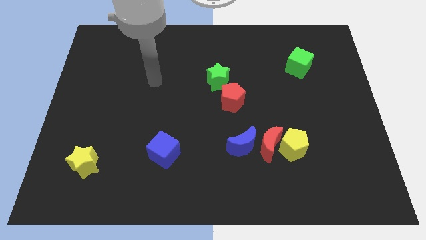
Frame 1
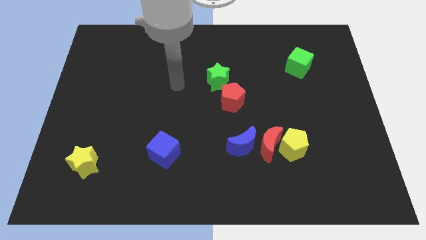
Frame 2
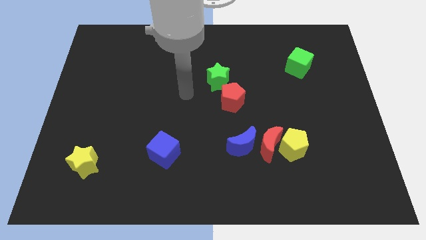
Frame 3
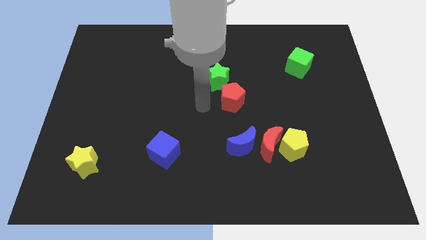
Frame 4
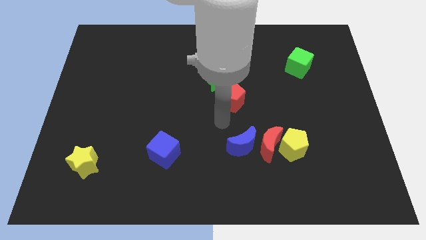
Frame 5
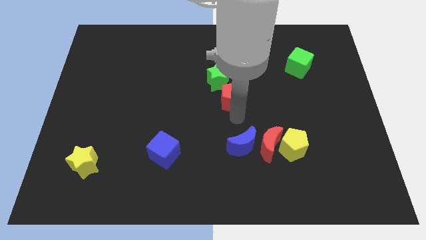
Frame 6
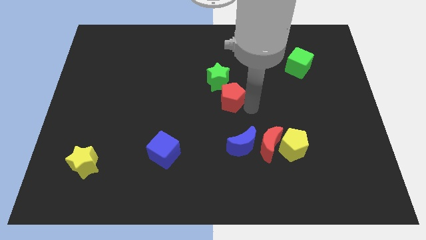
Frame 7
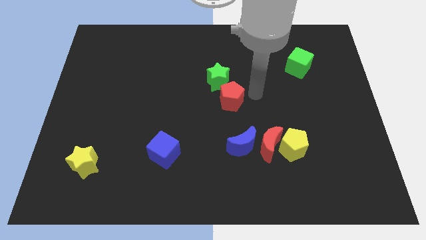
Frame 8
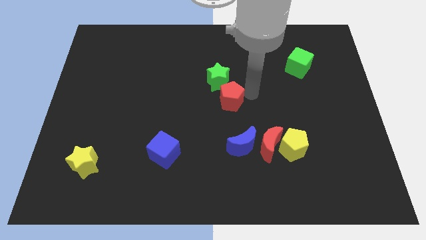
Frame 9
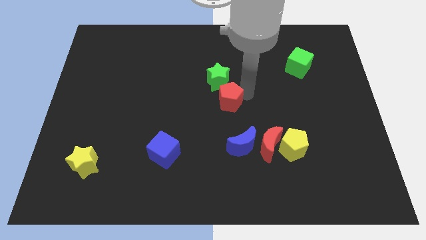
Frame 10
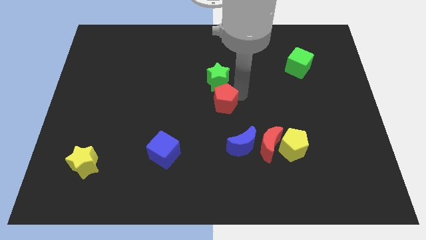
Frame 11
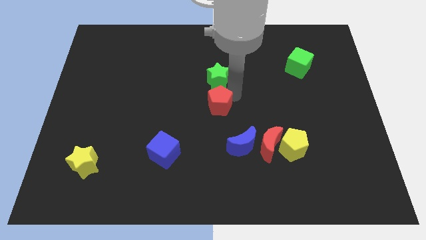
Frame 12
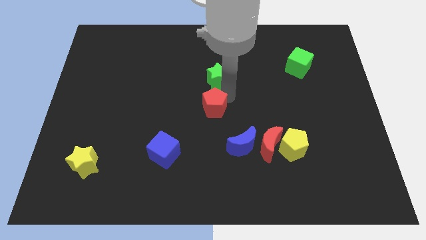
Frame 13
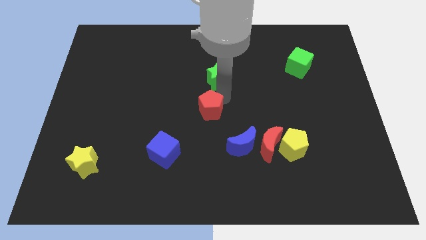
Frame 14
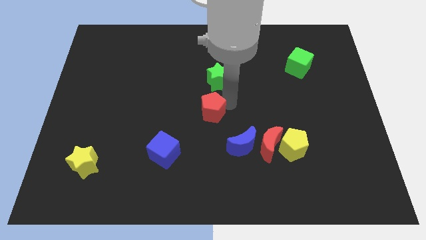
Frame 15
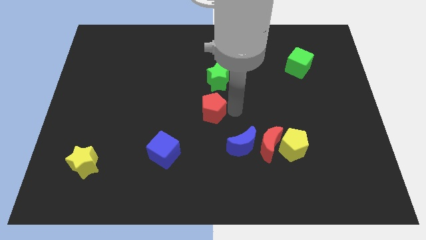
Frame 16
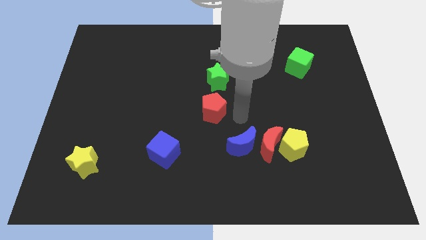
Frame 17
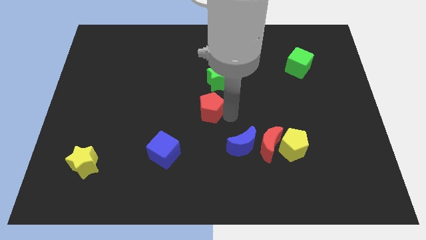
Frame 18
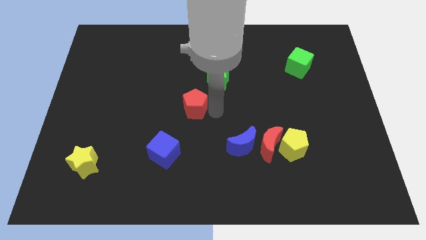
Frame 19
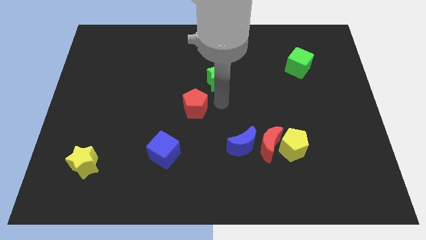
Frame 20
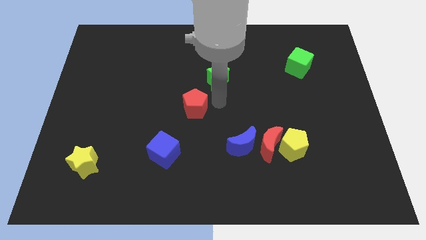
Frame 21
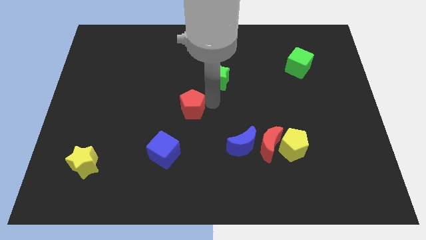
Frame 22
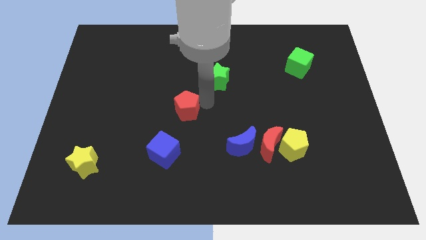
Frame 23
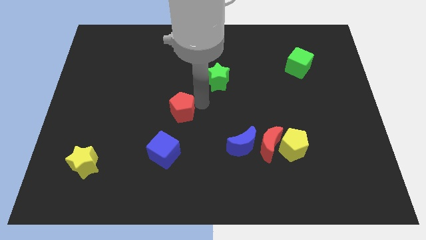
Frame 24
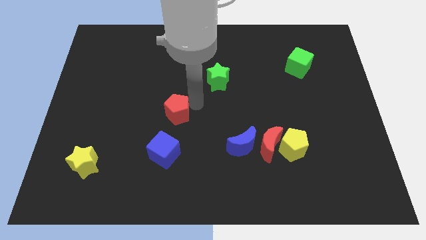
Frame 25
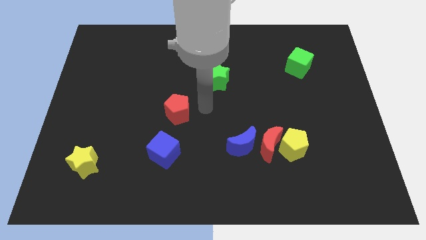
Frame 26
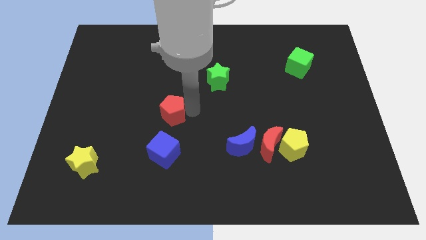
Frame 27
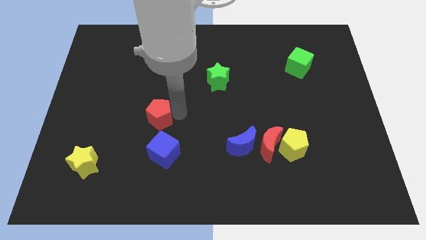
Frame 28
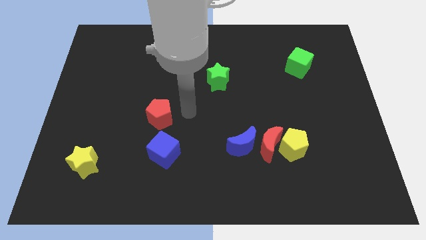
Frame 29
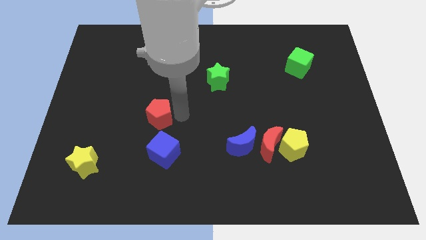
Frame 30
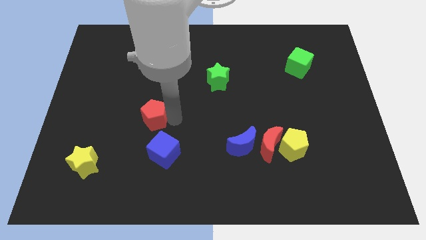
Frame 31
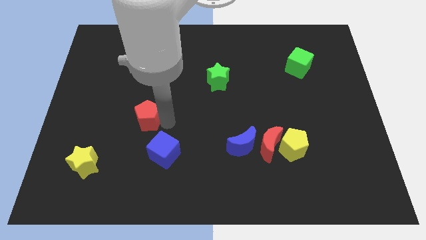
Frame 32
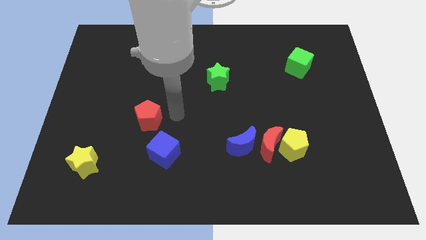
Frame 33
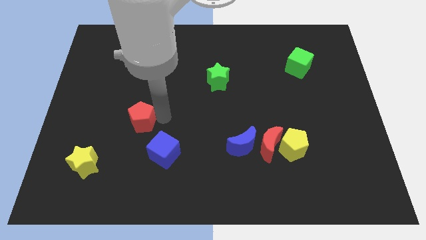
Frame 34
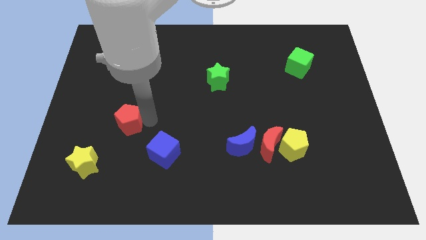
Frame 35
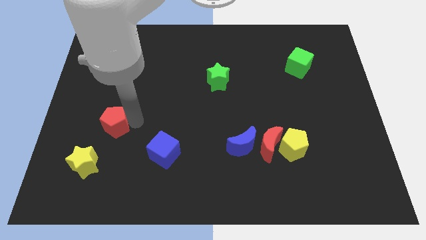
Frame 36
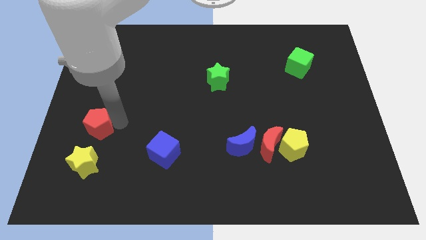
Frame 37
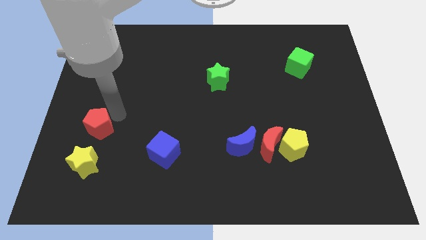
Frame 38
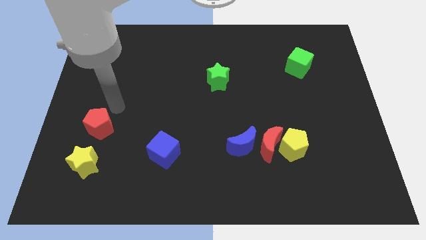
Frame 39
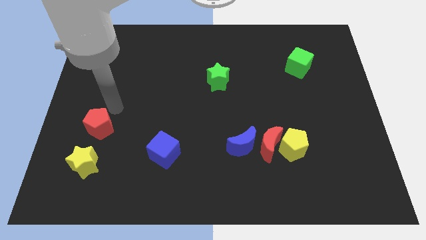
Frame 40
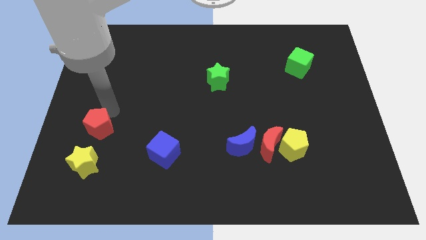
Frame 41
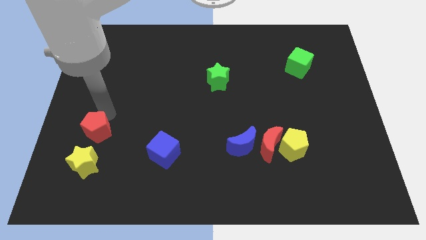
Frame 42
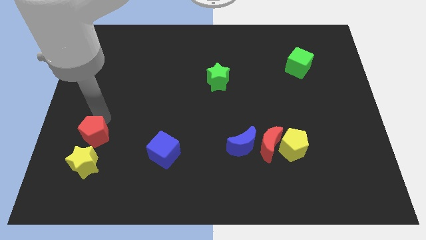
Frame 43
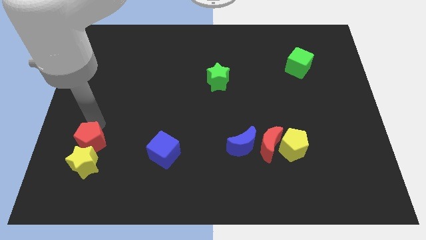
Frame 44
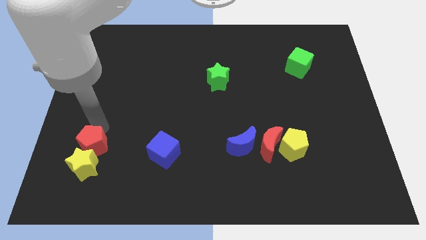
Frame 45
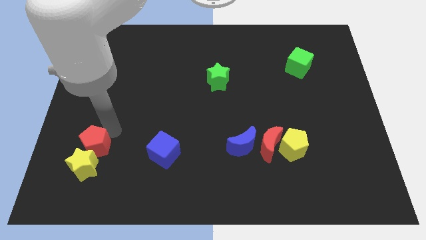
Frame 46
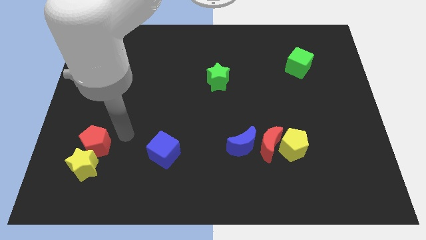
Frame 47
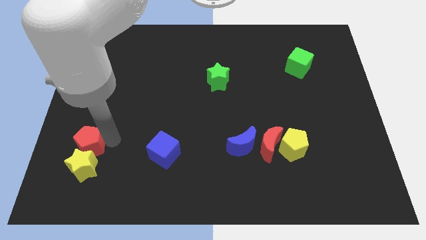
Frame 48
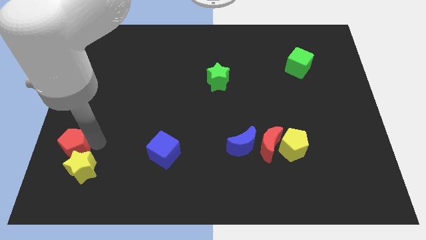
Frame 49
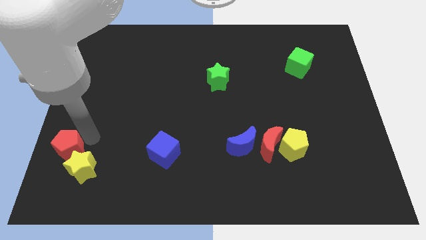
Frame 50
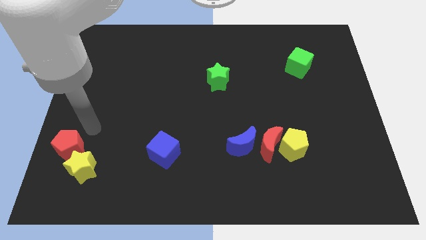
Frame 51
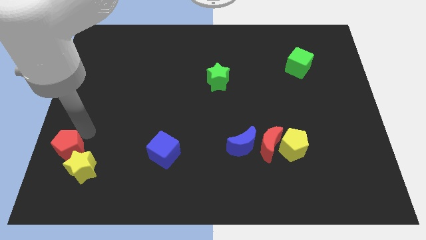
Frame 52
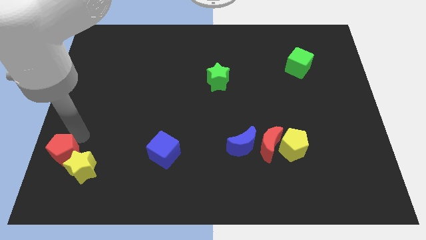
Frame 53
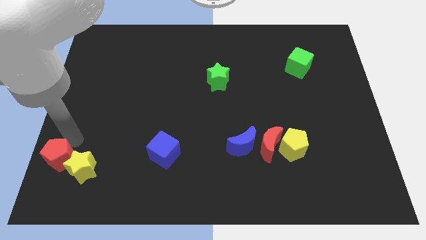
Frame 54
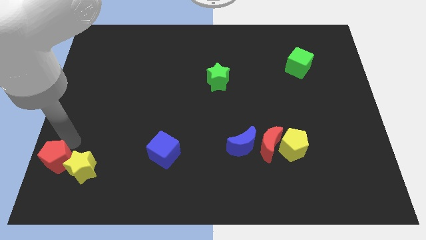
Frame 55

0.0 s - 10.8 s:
put the red pentagon to the lower left corner

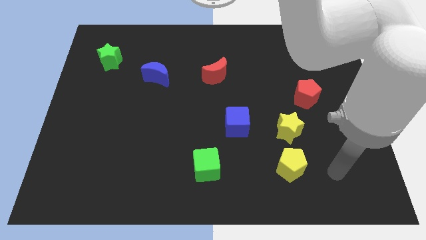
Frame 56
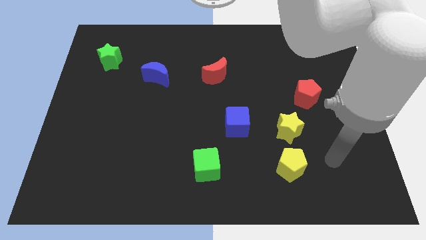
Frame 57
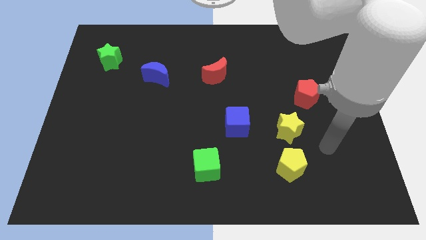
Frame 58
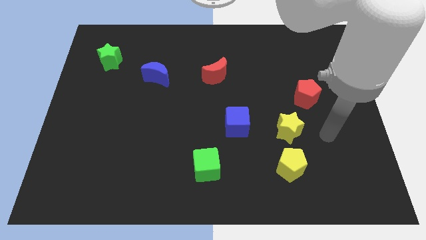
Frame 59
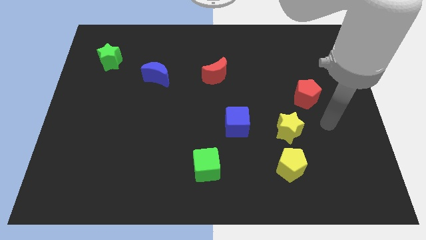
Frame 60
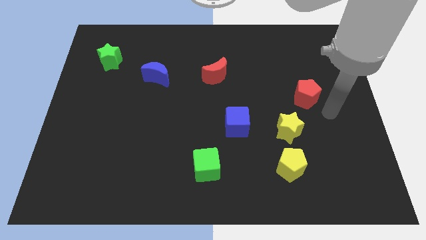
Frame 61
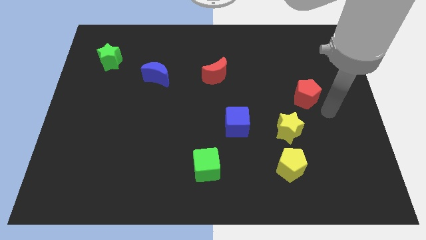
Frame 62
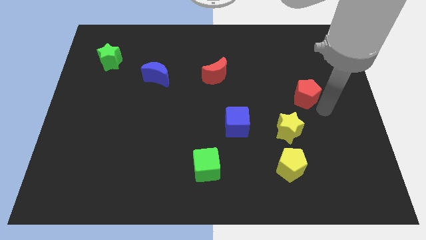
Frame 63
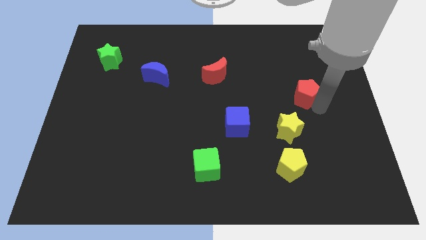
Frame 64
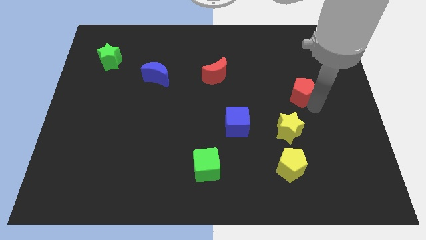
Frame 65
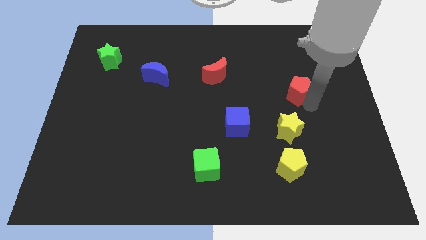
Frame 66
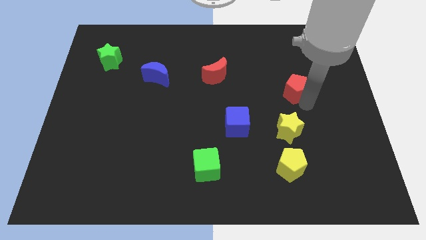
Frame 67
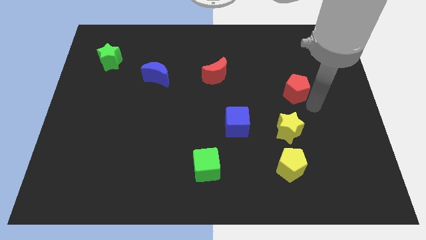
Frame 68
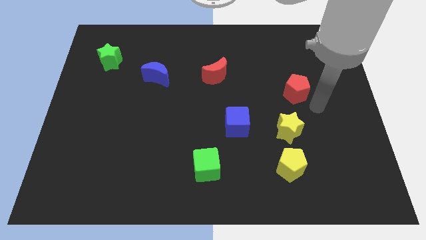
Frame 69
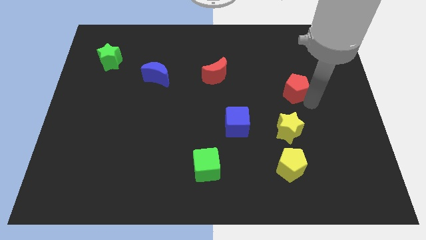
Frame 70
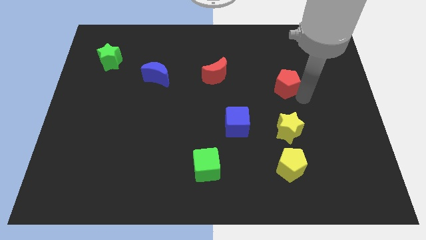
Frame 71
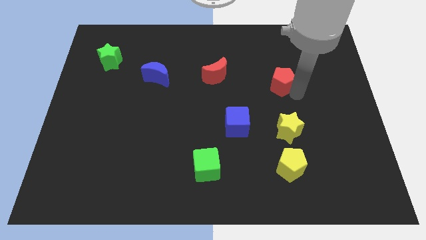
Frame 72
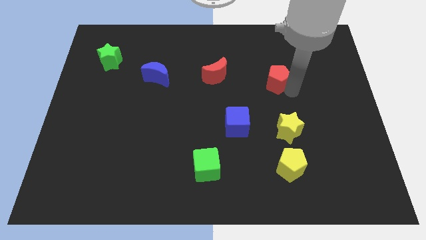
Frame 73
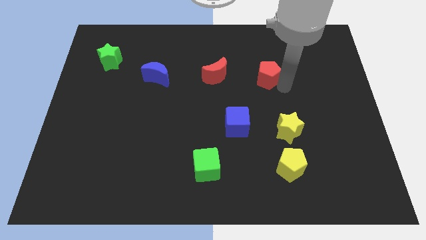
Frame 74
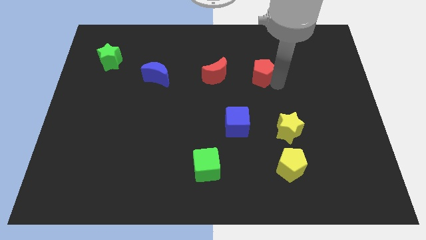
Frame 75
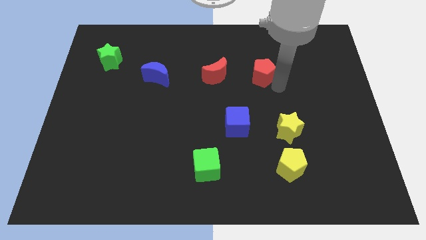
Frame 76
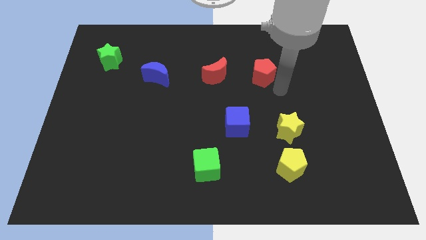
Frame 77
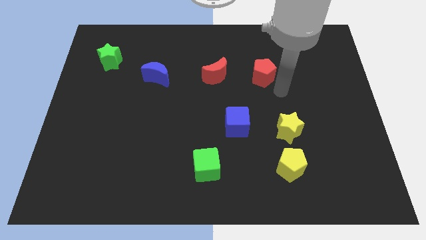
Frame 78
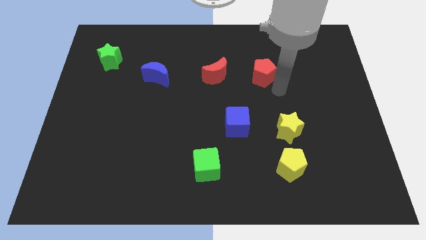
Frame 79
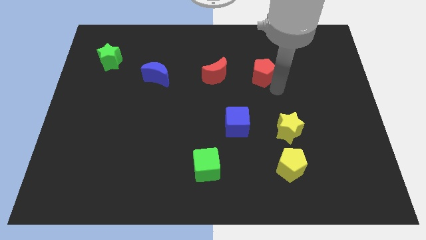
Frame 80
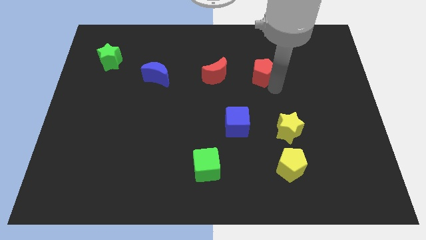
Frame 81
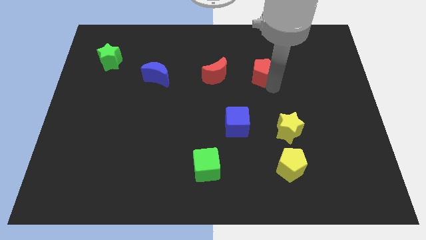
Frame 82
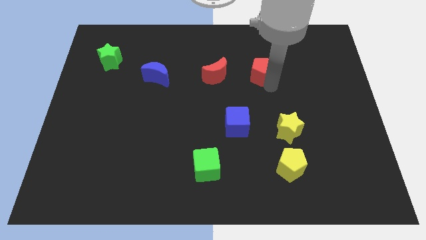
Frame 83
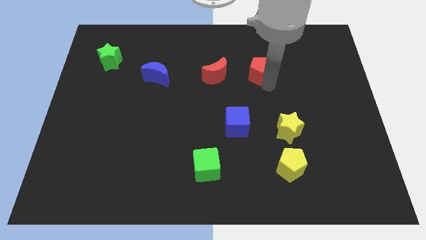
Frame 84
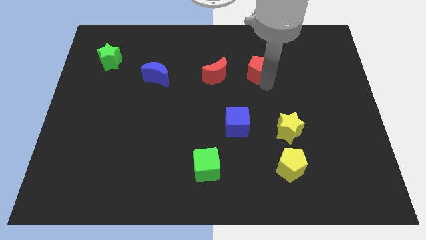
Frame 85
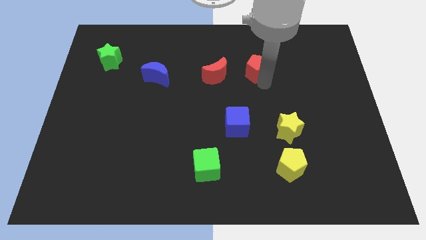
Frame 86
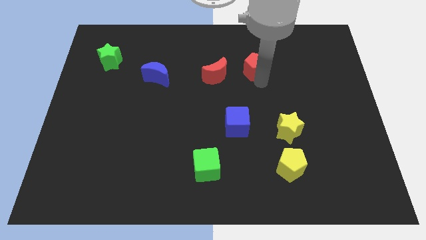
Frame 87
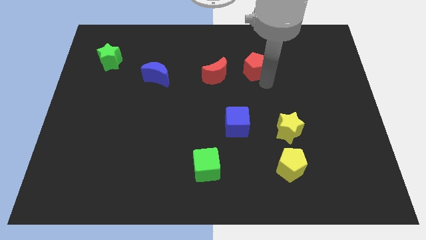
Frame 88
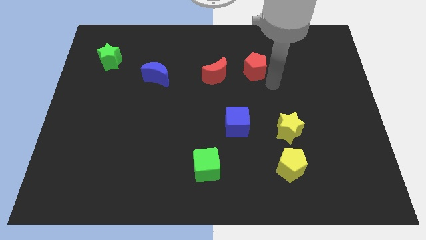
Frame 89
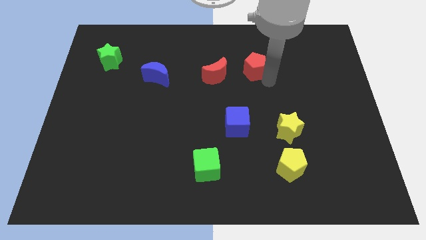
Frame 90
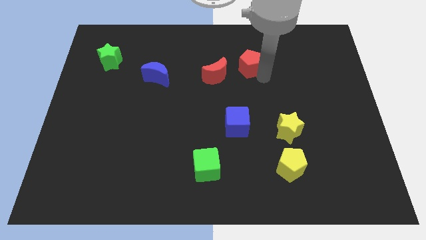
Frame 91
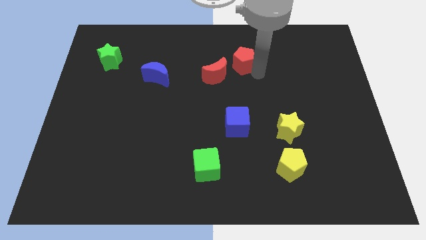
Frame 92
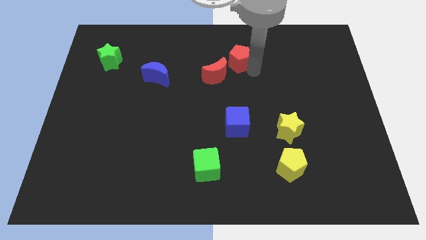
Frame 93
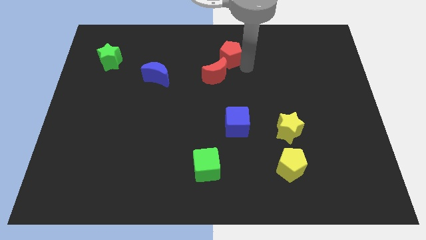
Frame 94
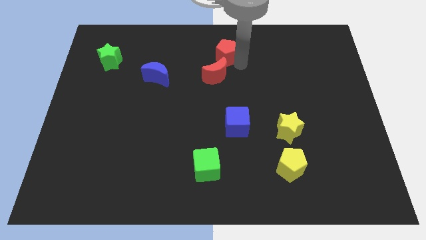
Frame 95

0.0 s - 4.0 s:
put the red pentagon to the top
